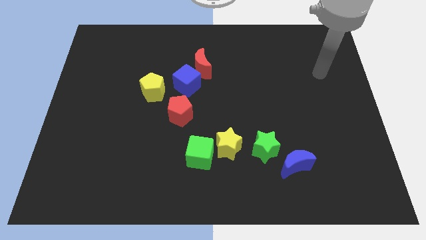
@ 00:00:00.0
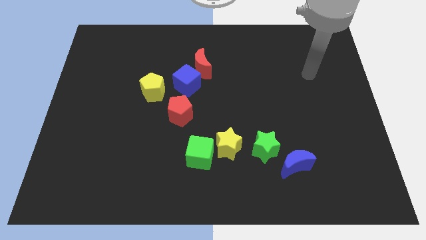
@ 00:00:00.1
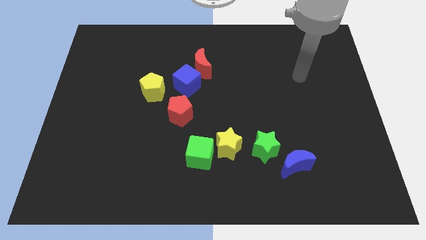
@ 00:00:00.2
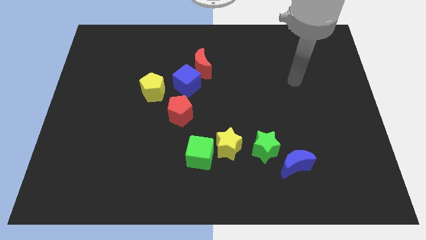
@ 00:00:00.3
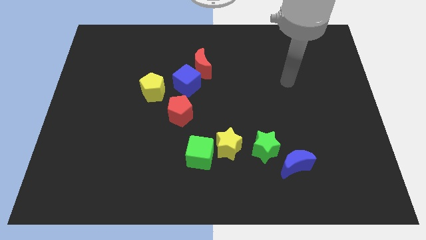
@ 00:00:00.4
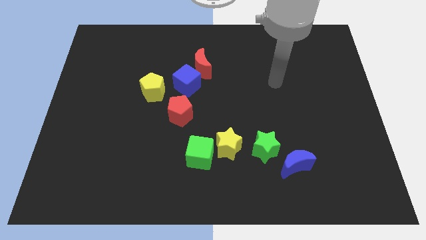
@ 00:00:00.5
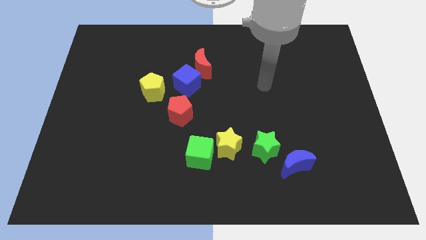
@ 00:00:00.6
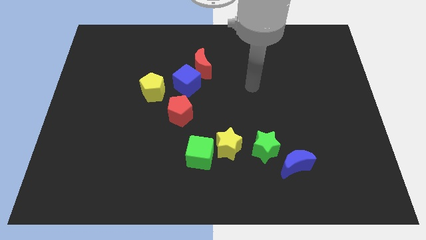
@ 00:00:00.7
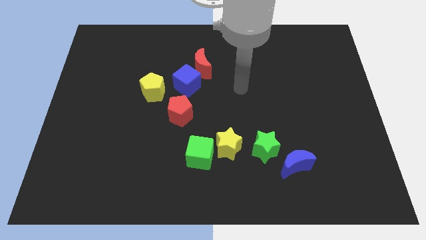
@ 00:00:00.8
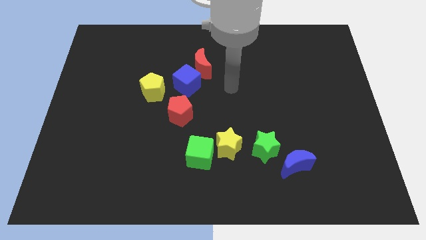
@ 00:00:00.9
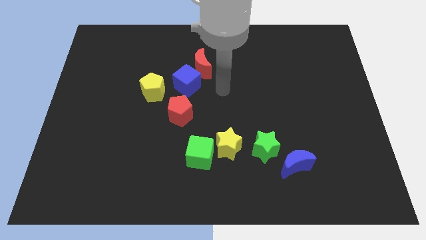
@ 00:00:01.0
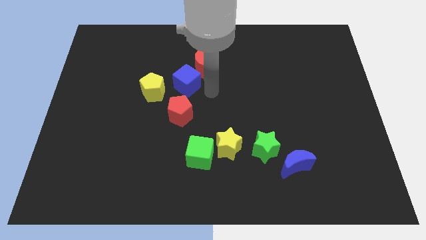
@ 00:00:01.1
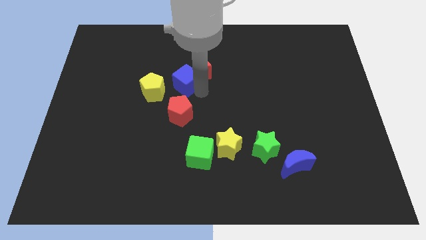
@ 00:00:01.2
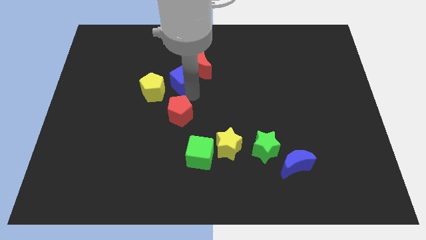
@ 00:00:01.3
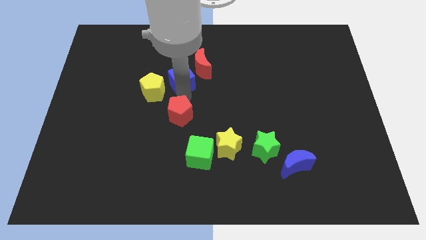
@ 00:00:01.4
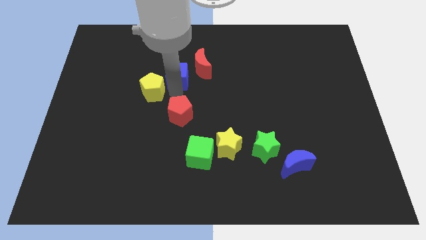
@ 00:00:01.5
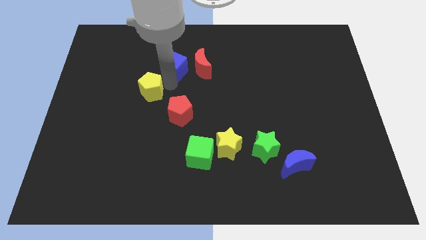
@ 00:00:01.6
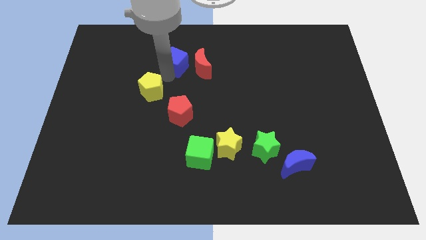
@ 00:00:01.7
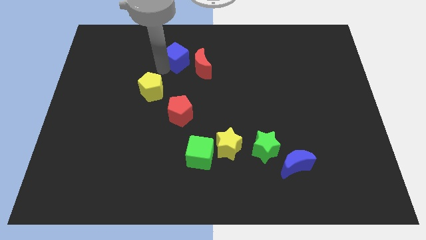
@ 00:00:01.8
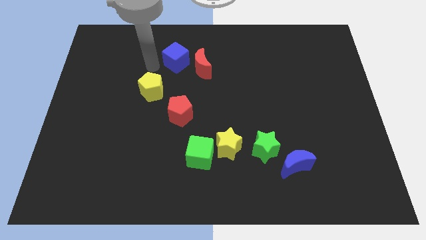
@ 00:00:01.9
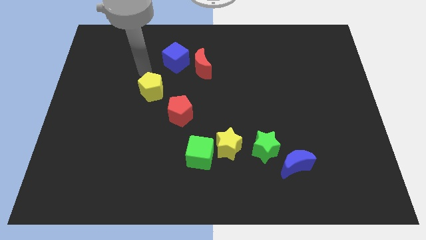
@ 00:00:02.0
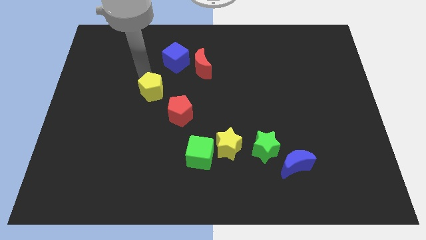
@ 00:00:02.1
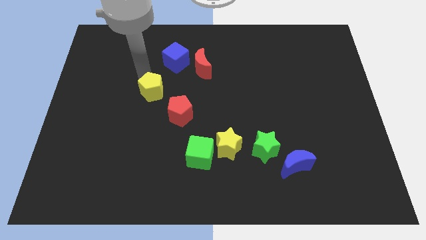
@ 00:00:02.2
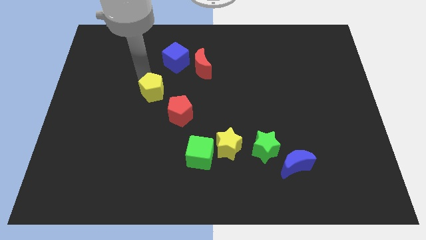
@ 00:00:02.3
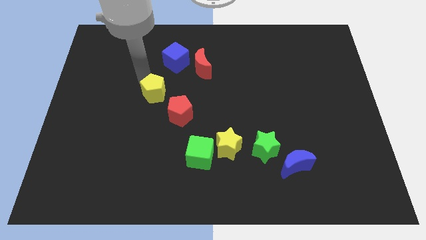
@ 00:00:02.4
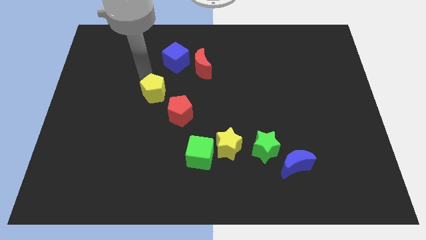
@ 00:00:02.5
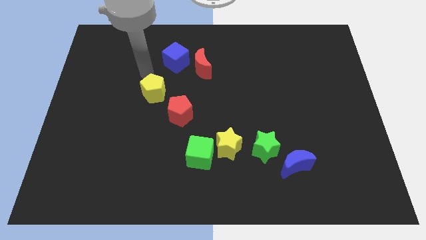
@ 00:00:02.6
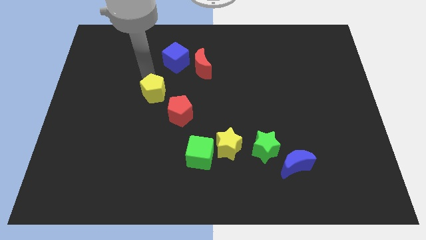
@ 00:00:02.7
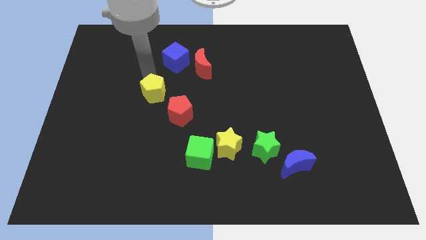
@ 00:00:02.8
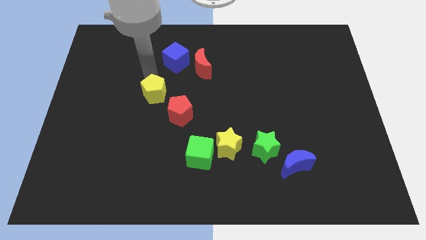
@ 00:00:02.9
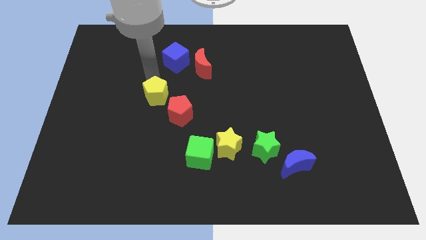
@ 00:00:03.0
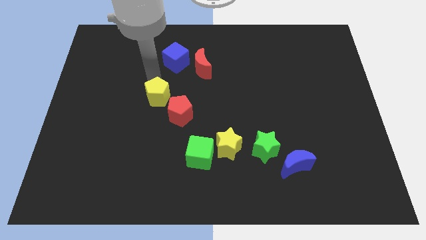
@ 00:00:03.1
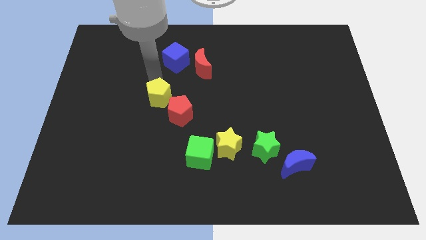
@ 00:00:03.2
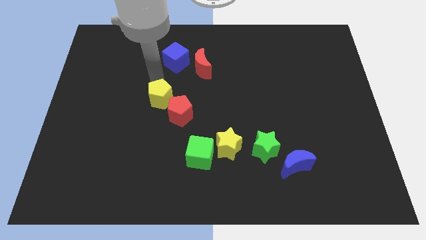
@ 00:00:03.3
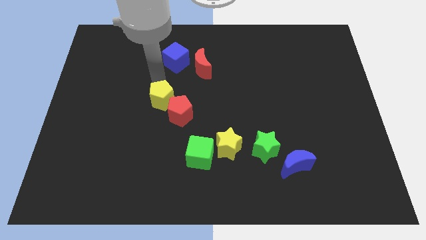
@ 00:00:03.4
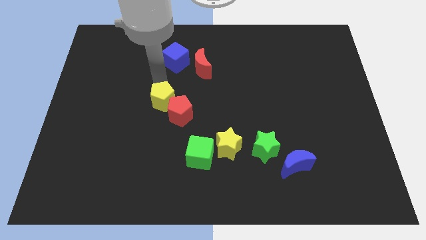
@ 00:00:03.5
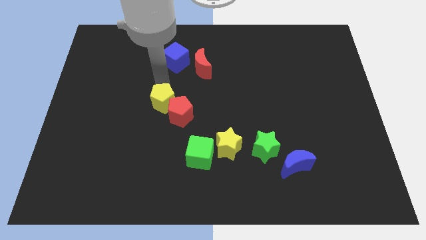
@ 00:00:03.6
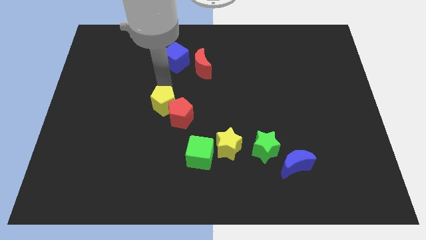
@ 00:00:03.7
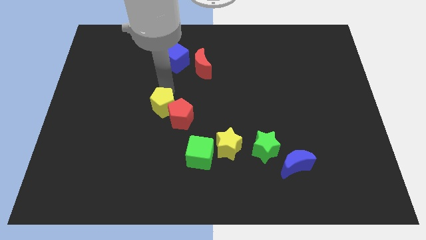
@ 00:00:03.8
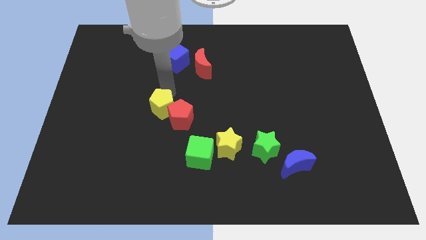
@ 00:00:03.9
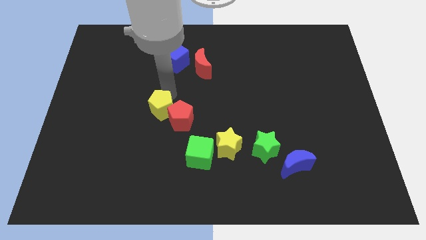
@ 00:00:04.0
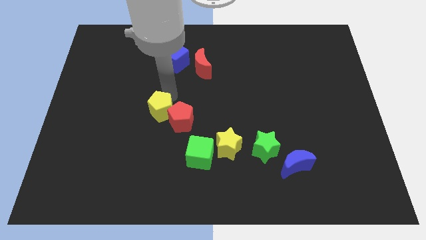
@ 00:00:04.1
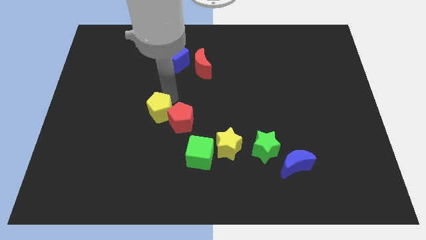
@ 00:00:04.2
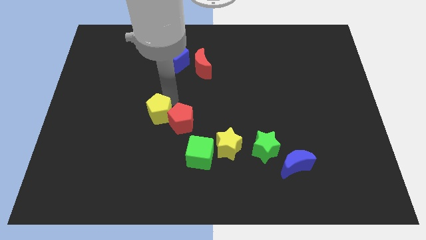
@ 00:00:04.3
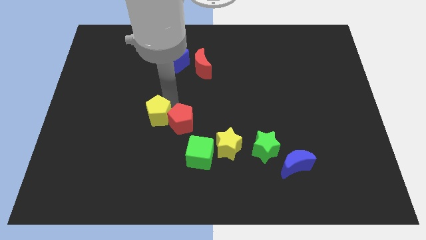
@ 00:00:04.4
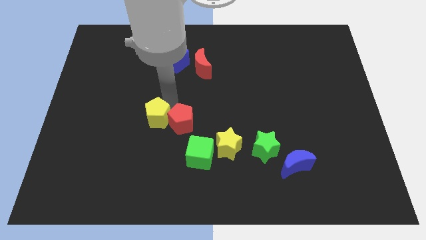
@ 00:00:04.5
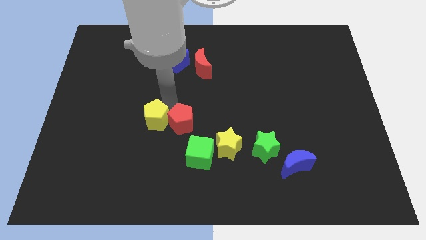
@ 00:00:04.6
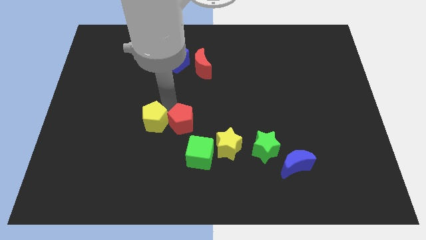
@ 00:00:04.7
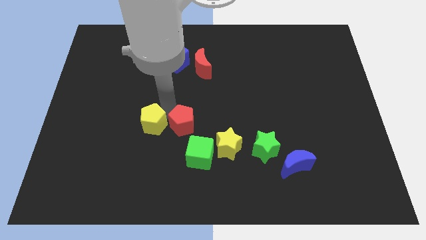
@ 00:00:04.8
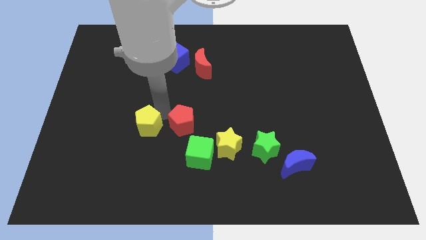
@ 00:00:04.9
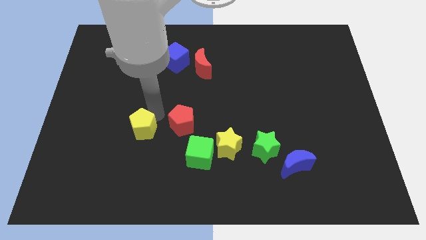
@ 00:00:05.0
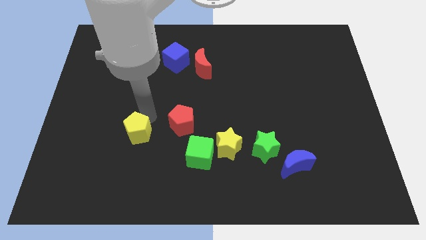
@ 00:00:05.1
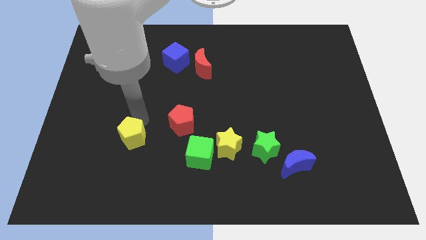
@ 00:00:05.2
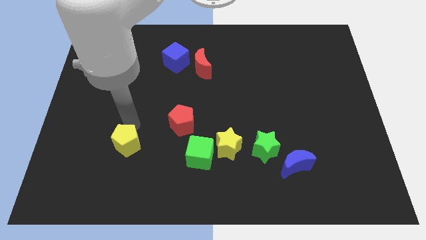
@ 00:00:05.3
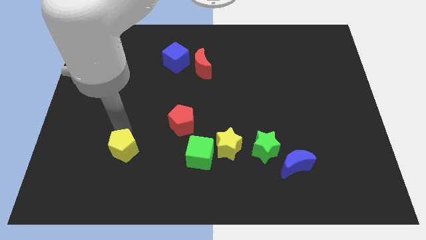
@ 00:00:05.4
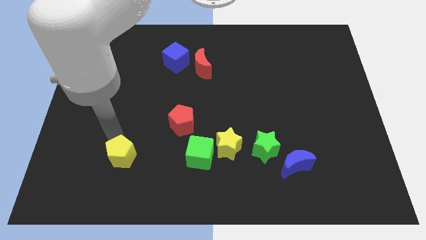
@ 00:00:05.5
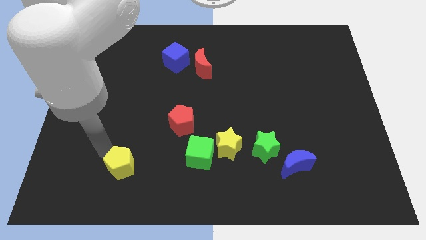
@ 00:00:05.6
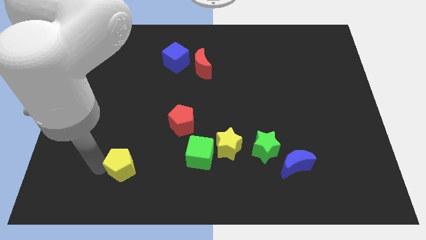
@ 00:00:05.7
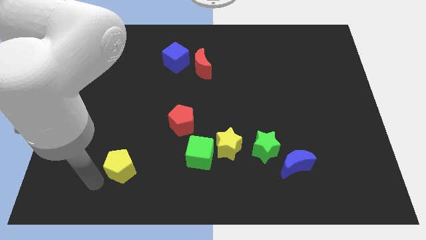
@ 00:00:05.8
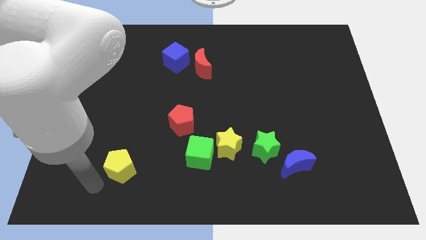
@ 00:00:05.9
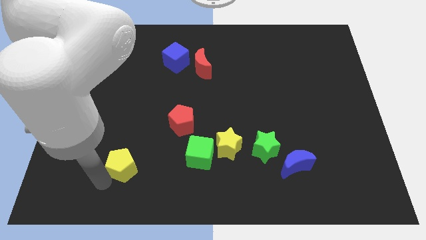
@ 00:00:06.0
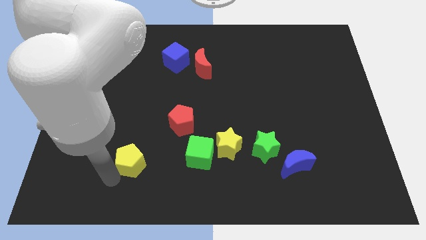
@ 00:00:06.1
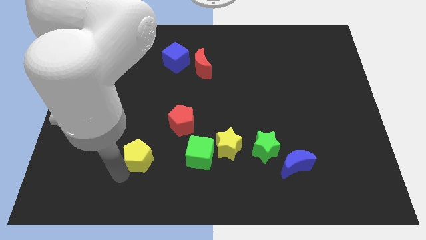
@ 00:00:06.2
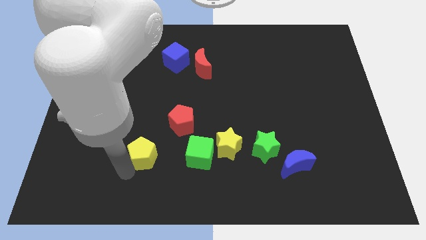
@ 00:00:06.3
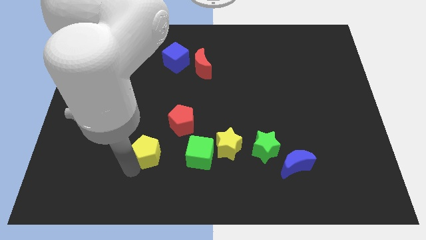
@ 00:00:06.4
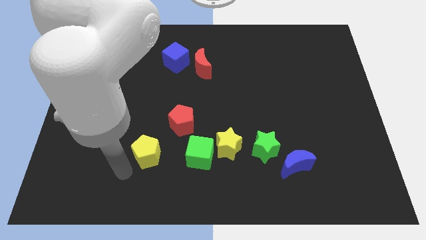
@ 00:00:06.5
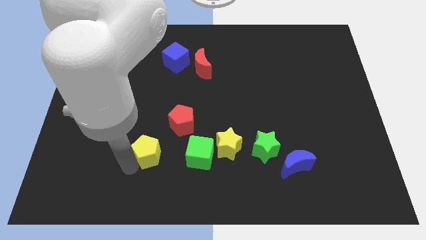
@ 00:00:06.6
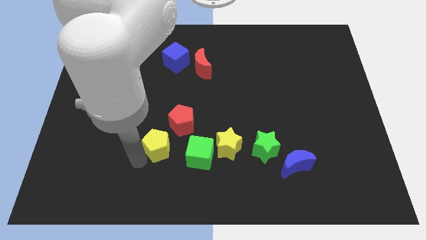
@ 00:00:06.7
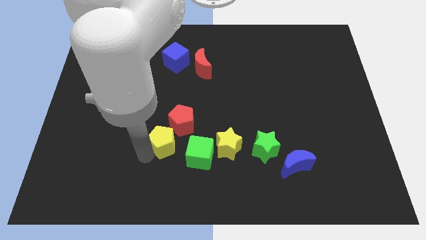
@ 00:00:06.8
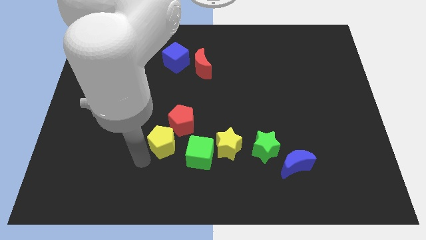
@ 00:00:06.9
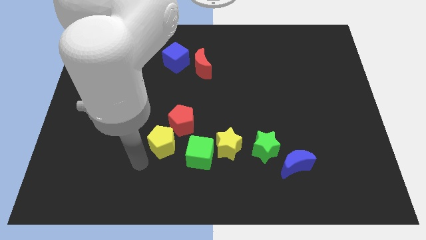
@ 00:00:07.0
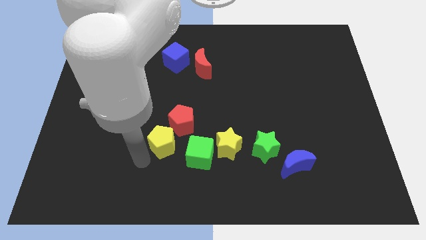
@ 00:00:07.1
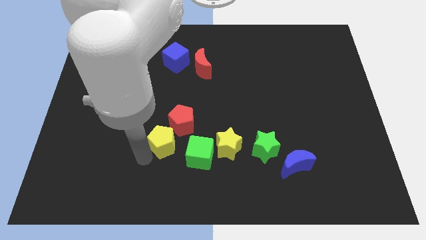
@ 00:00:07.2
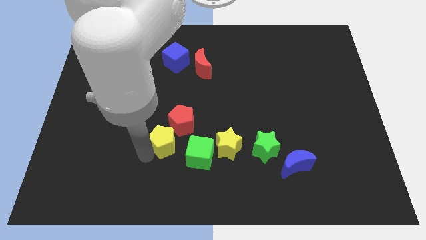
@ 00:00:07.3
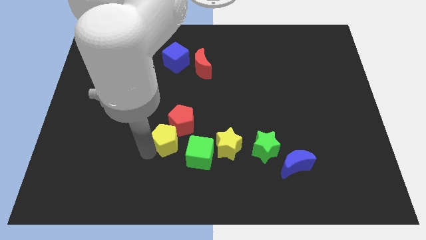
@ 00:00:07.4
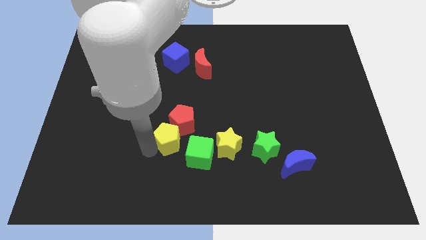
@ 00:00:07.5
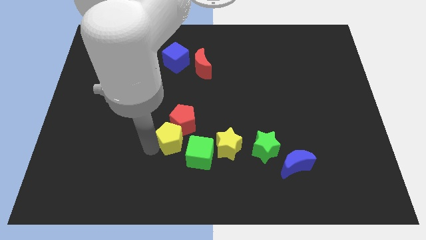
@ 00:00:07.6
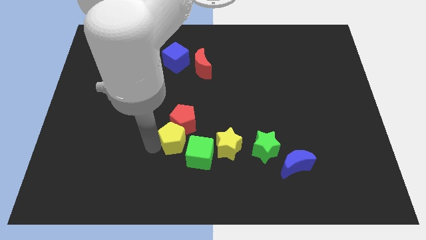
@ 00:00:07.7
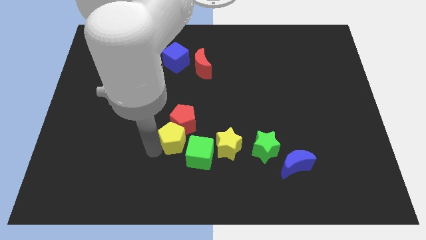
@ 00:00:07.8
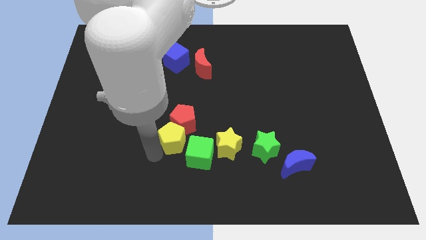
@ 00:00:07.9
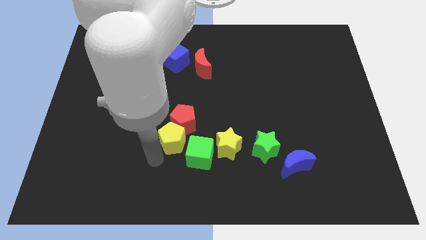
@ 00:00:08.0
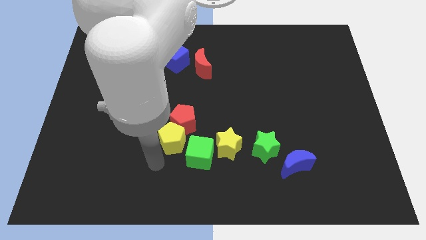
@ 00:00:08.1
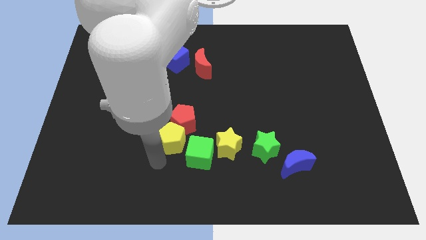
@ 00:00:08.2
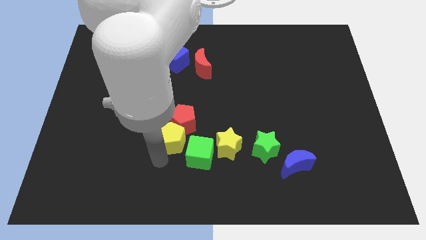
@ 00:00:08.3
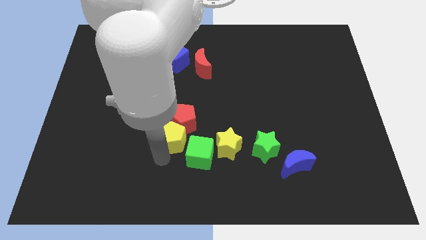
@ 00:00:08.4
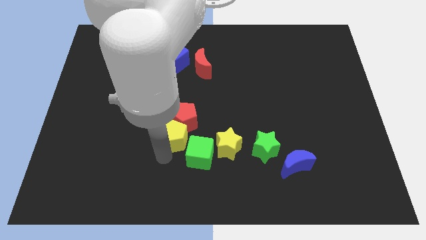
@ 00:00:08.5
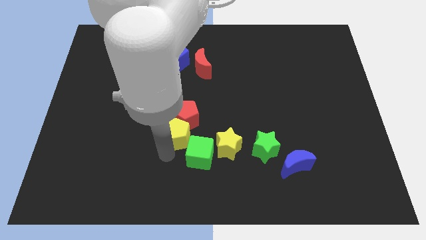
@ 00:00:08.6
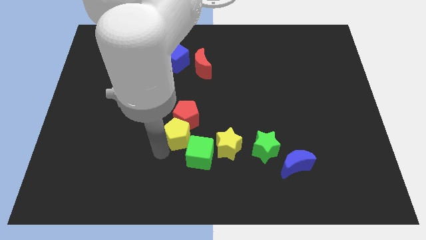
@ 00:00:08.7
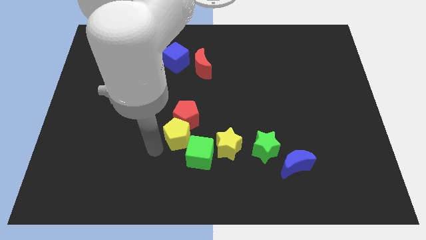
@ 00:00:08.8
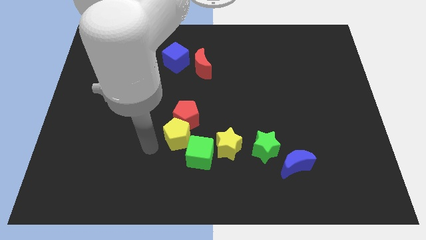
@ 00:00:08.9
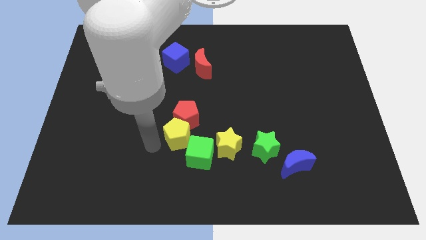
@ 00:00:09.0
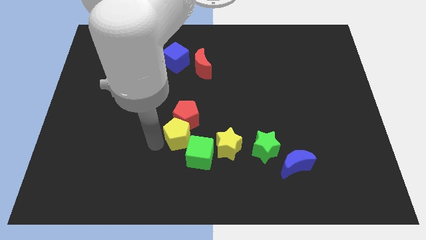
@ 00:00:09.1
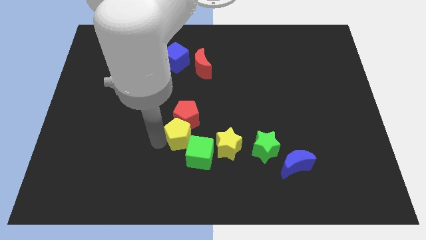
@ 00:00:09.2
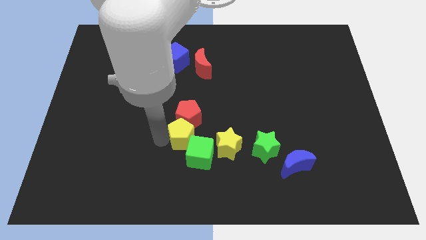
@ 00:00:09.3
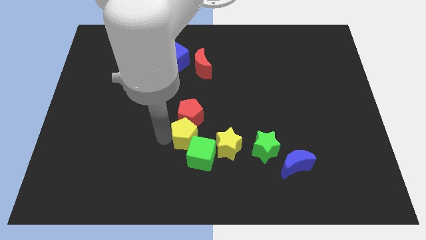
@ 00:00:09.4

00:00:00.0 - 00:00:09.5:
put the yellow pentagon to the top left side of the yellow star
